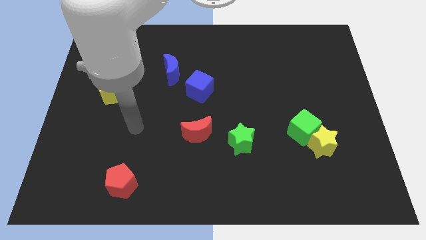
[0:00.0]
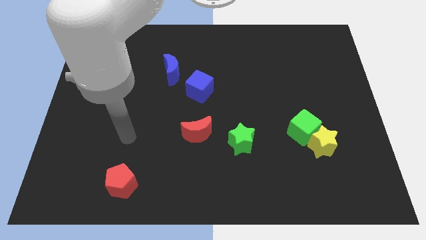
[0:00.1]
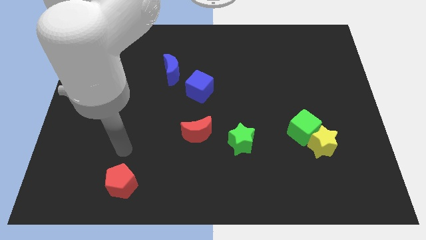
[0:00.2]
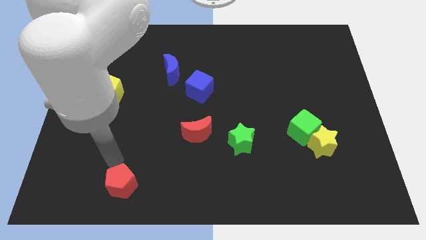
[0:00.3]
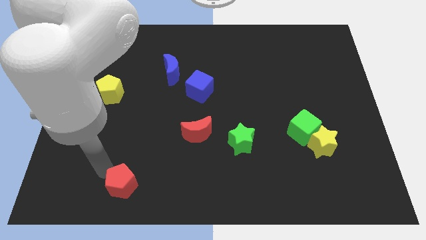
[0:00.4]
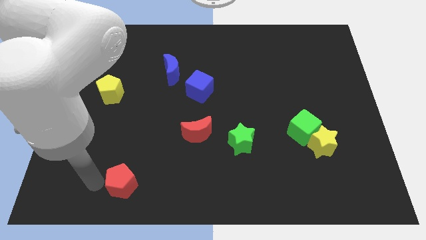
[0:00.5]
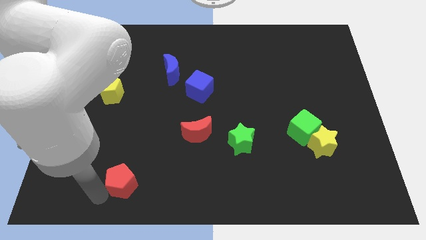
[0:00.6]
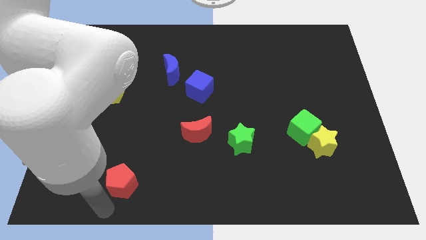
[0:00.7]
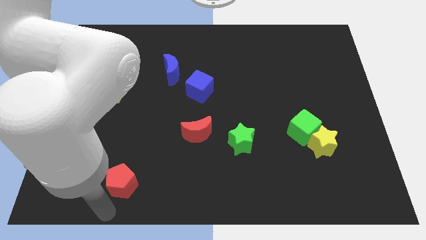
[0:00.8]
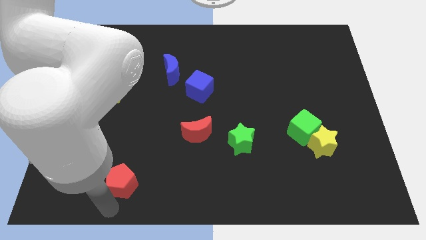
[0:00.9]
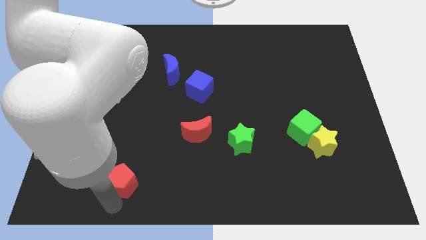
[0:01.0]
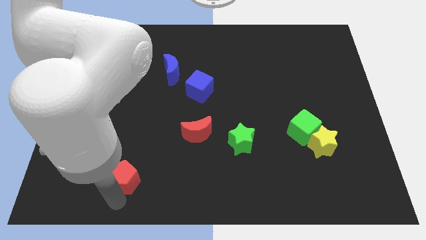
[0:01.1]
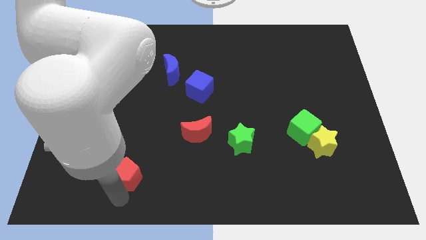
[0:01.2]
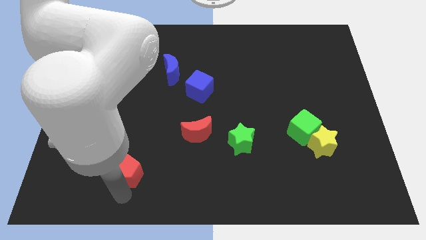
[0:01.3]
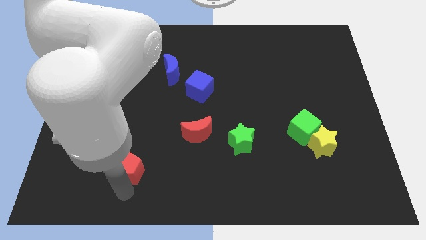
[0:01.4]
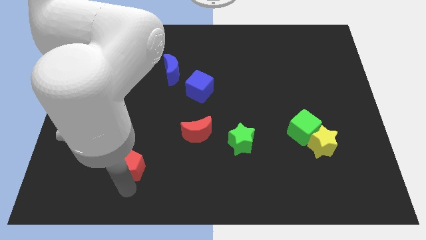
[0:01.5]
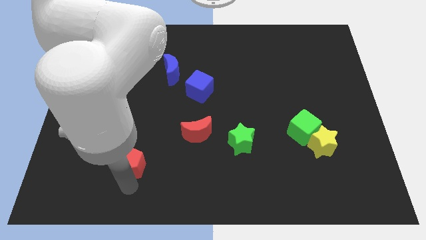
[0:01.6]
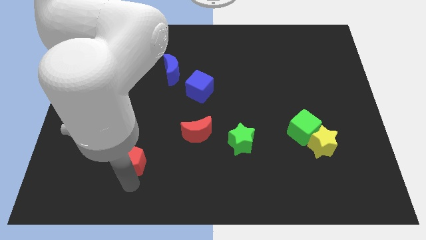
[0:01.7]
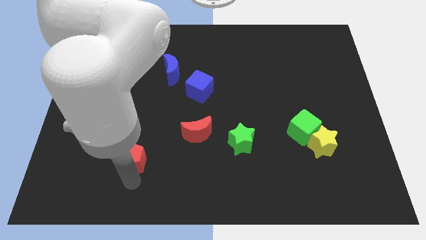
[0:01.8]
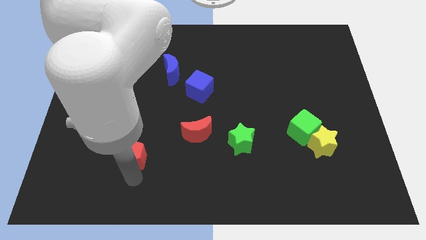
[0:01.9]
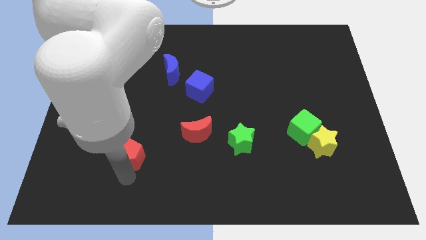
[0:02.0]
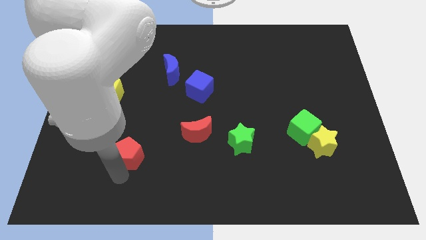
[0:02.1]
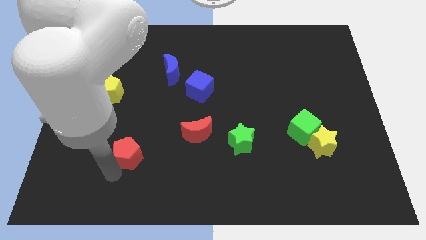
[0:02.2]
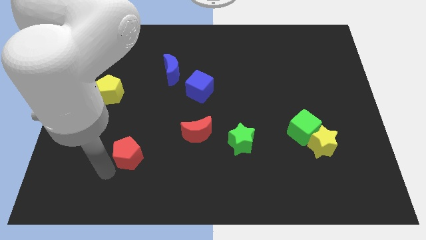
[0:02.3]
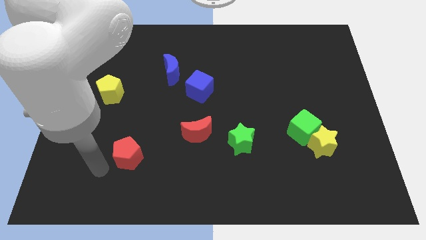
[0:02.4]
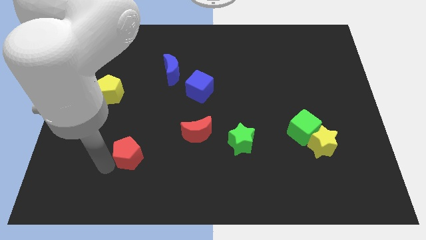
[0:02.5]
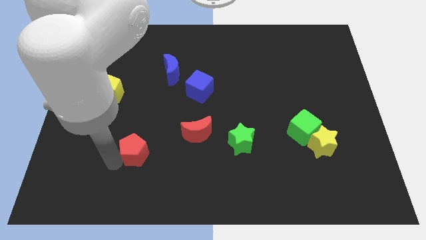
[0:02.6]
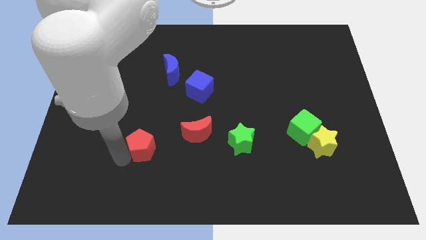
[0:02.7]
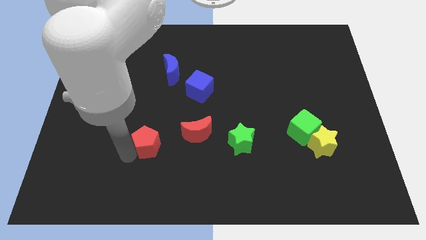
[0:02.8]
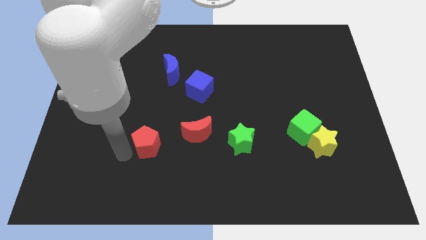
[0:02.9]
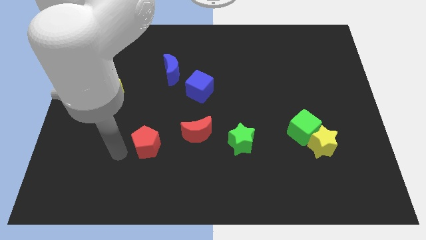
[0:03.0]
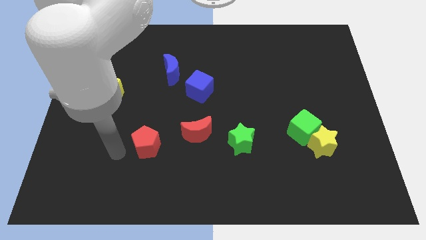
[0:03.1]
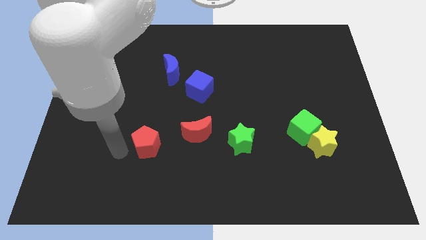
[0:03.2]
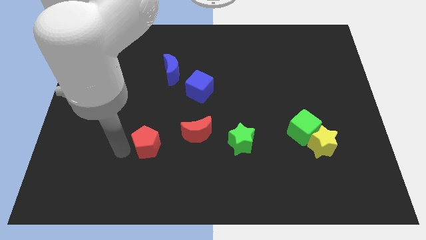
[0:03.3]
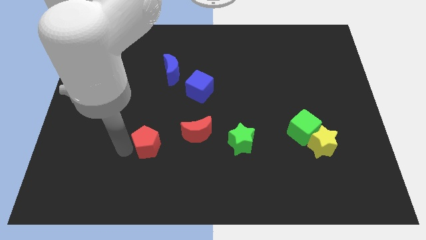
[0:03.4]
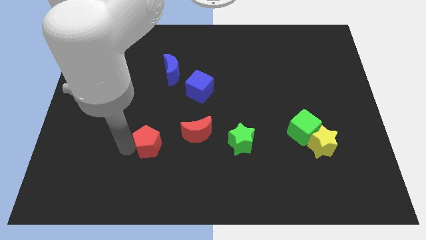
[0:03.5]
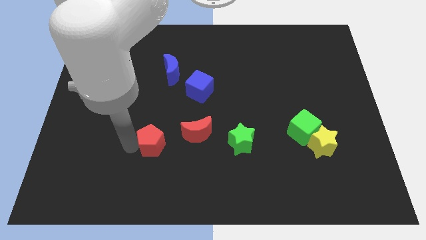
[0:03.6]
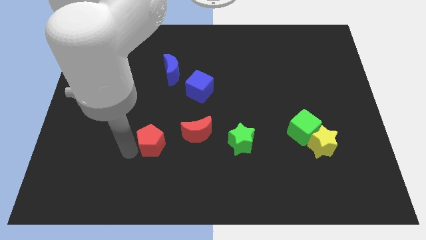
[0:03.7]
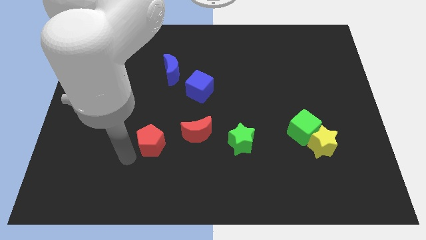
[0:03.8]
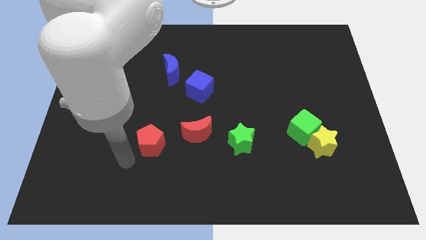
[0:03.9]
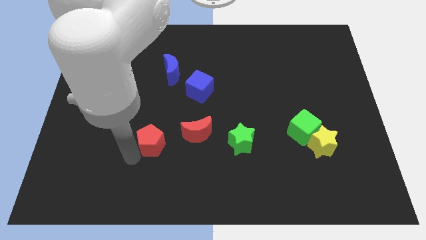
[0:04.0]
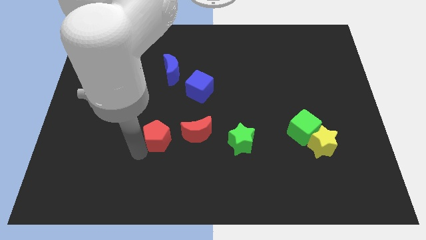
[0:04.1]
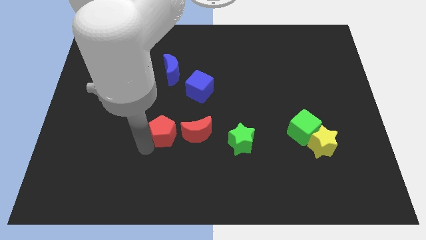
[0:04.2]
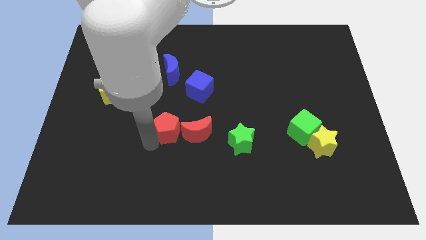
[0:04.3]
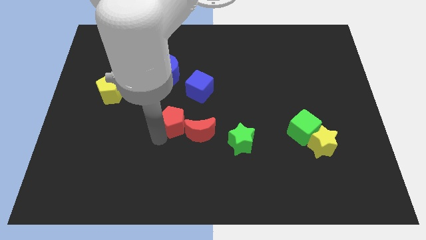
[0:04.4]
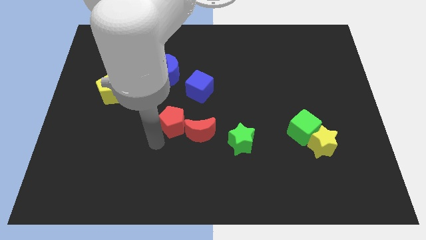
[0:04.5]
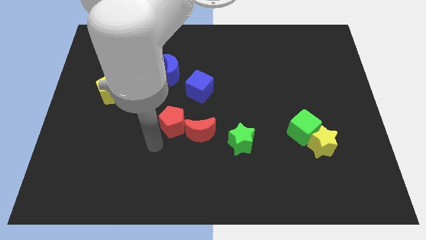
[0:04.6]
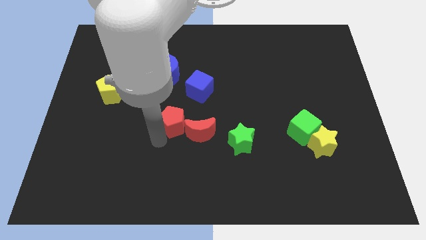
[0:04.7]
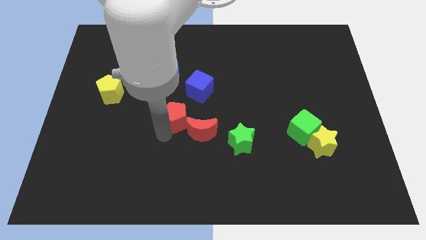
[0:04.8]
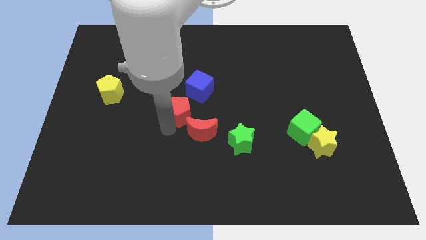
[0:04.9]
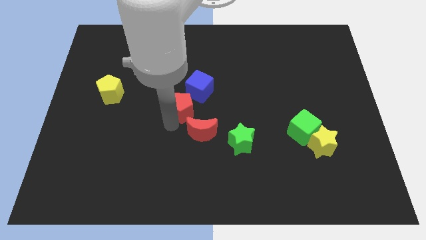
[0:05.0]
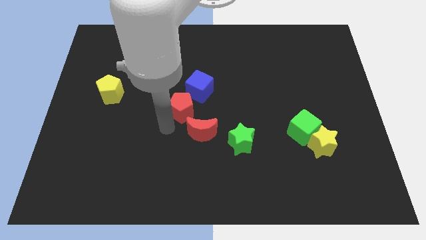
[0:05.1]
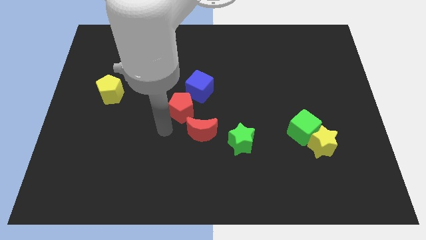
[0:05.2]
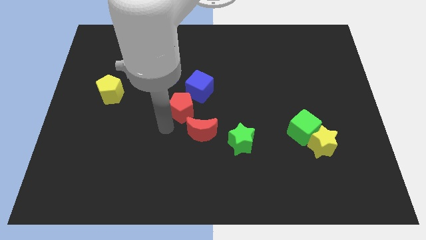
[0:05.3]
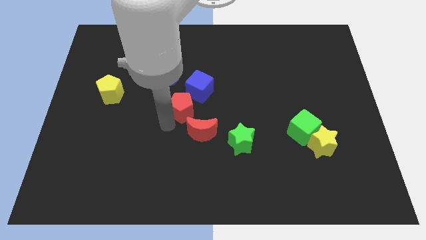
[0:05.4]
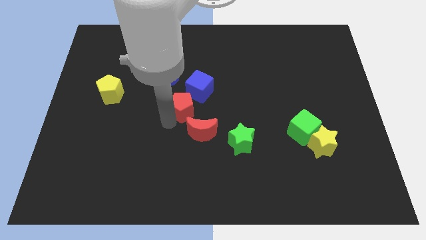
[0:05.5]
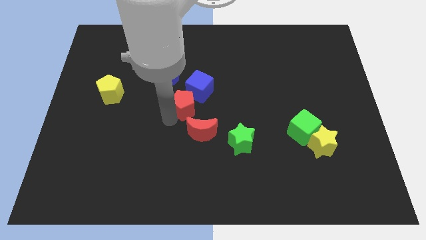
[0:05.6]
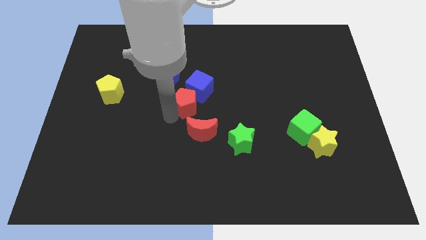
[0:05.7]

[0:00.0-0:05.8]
put the red pentagon to the blue cube

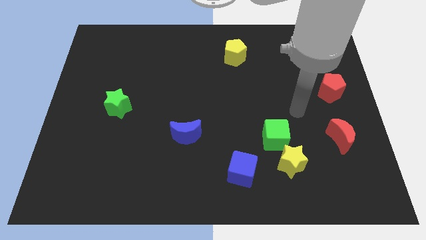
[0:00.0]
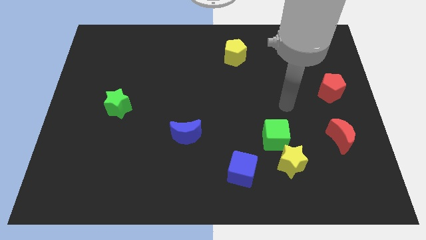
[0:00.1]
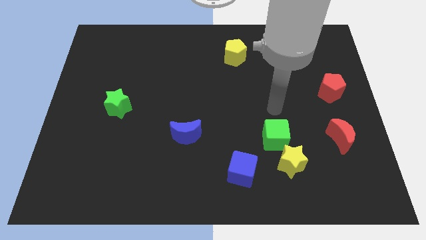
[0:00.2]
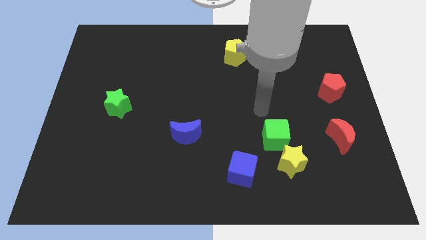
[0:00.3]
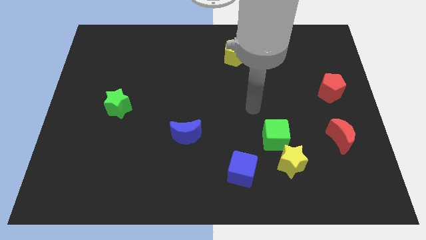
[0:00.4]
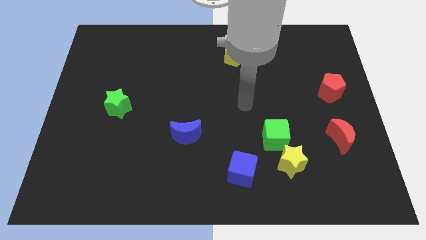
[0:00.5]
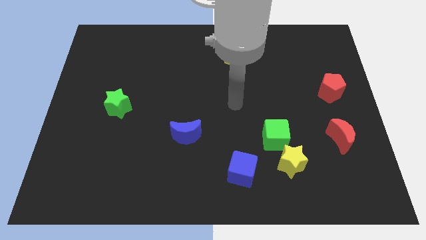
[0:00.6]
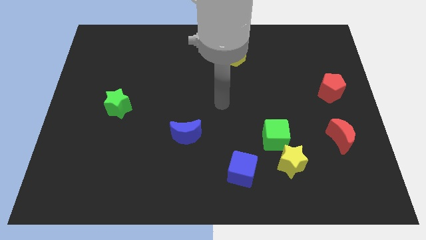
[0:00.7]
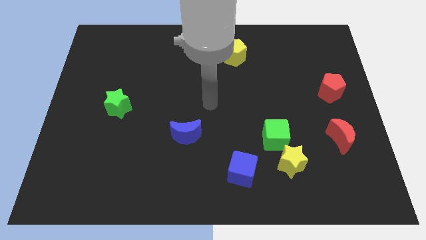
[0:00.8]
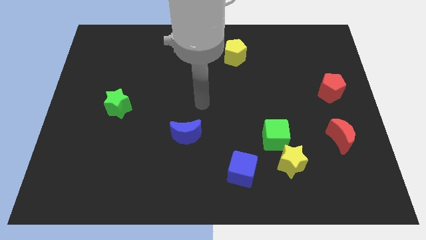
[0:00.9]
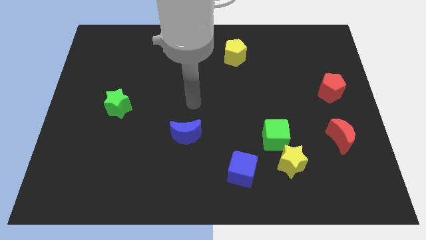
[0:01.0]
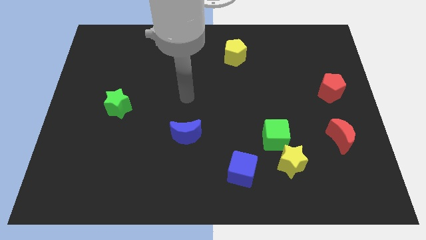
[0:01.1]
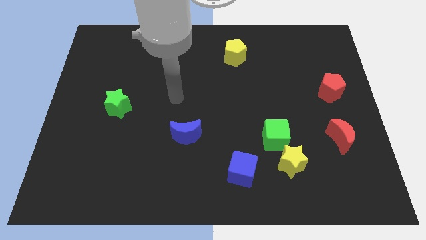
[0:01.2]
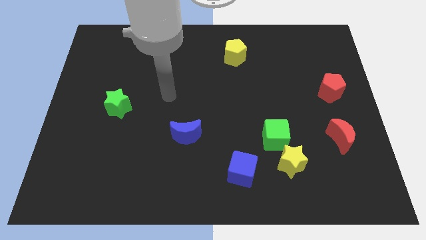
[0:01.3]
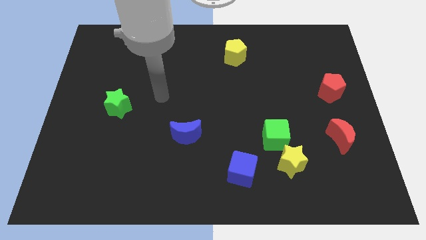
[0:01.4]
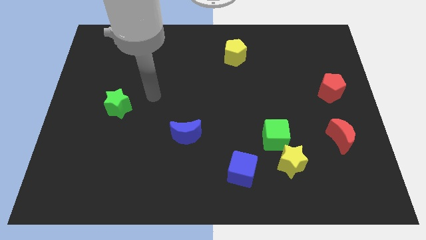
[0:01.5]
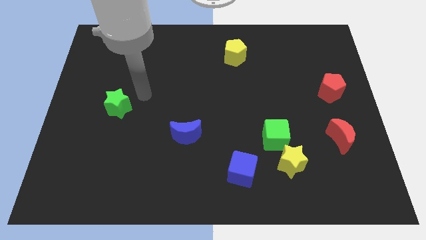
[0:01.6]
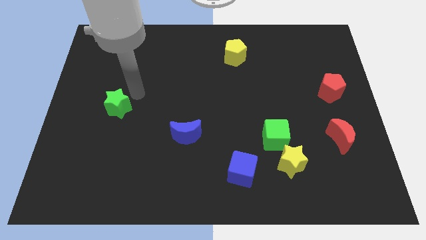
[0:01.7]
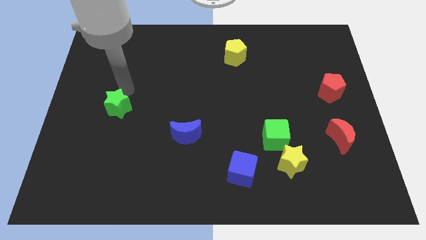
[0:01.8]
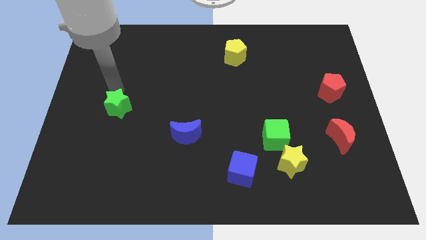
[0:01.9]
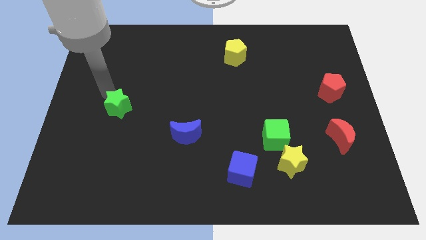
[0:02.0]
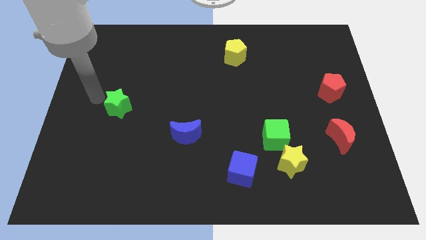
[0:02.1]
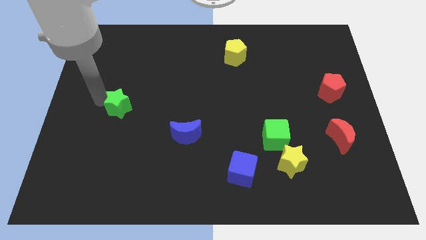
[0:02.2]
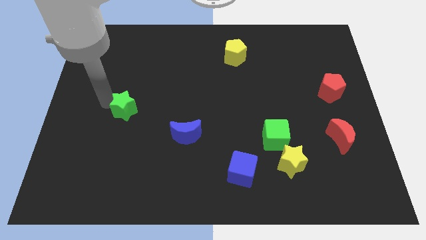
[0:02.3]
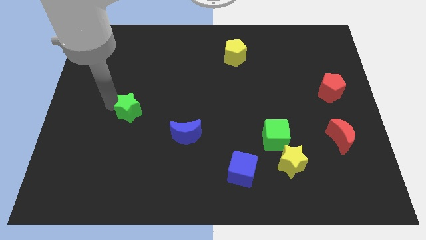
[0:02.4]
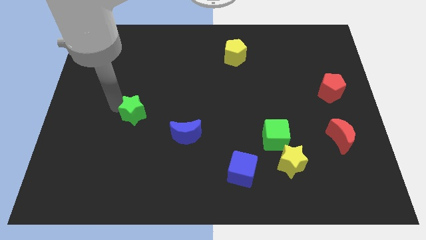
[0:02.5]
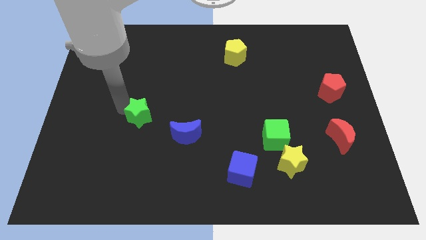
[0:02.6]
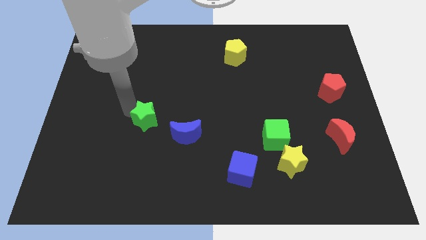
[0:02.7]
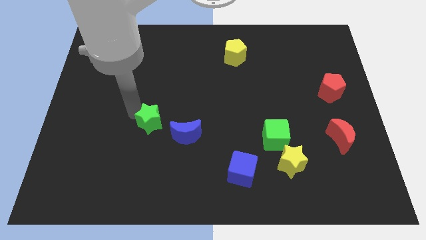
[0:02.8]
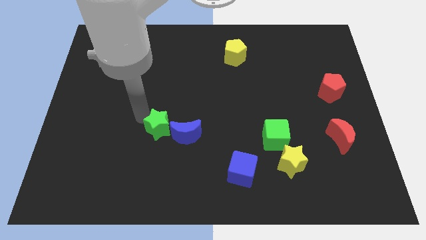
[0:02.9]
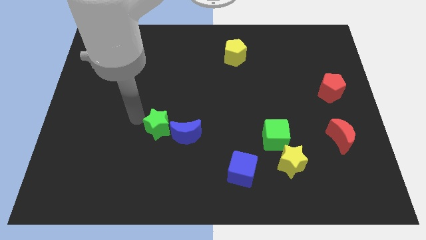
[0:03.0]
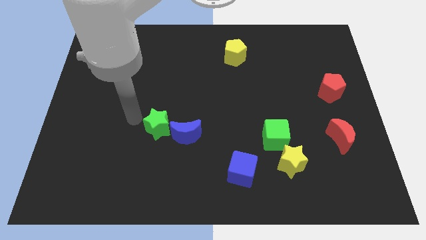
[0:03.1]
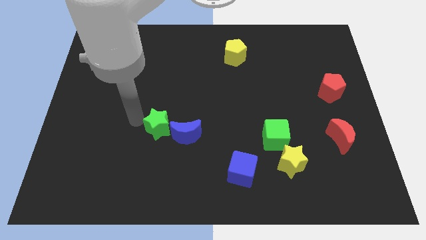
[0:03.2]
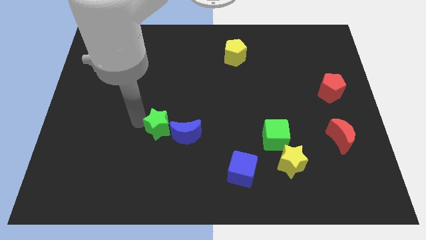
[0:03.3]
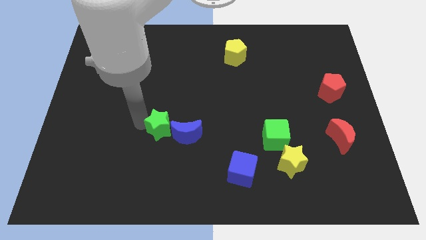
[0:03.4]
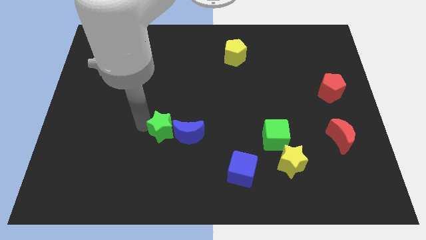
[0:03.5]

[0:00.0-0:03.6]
slide the green star next to the blue moon
